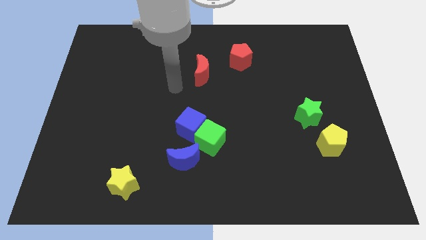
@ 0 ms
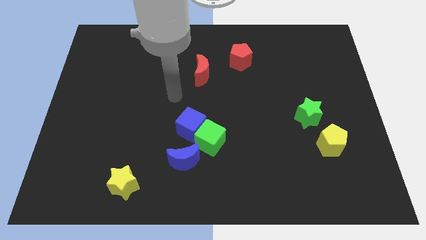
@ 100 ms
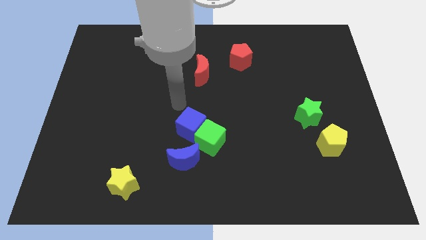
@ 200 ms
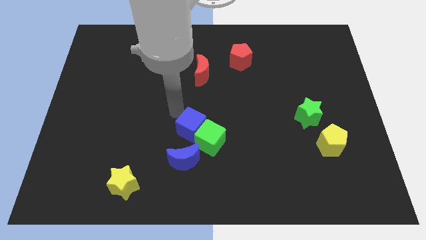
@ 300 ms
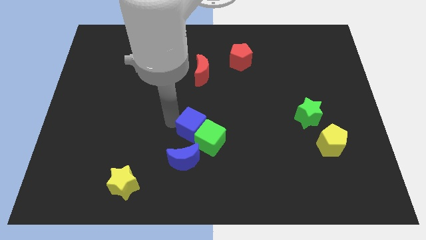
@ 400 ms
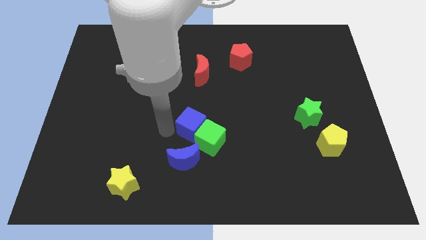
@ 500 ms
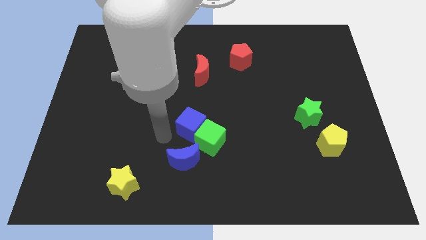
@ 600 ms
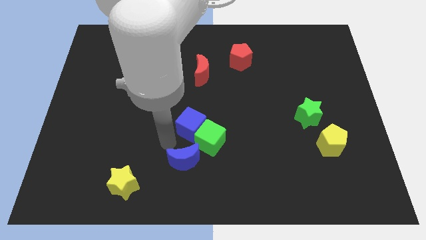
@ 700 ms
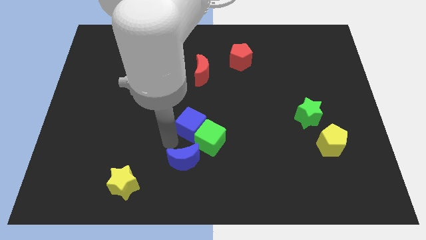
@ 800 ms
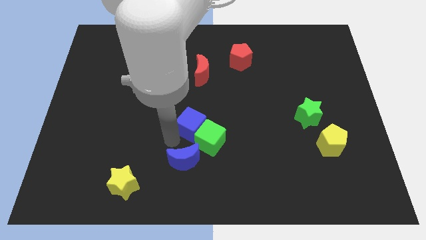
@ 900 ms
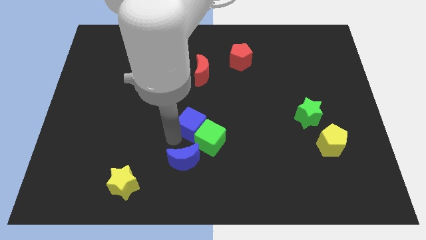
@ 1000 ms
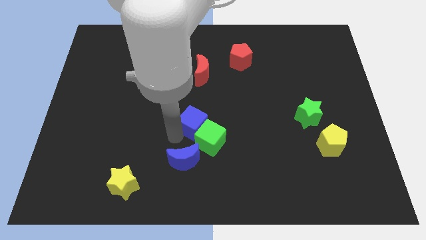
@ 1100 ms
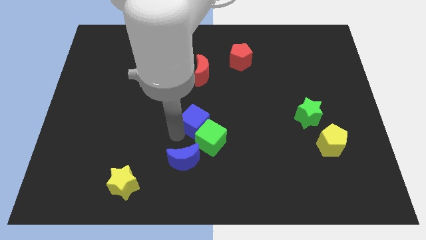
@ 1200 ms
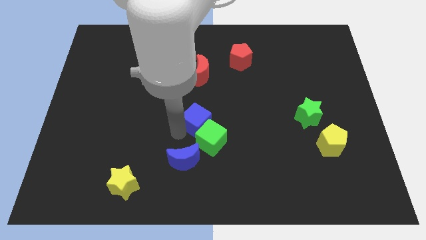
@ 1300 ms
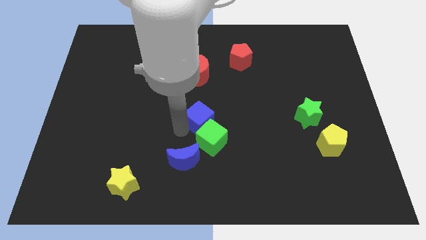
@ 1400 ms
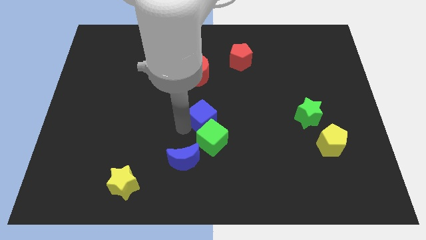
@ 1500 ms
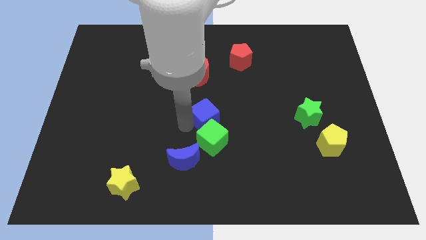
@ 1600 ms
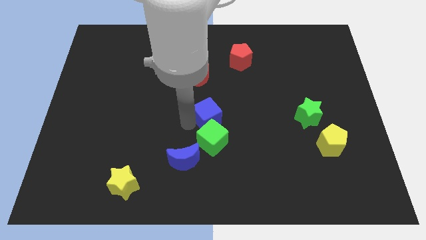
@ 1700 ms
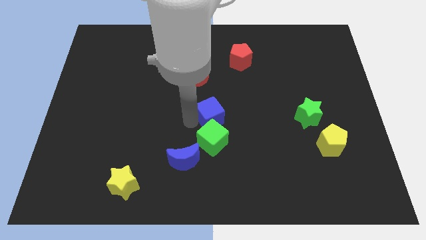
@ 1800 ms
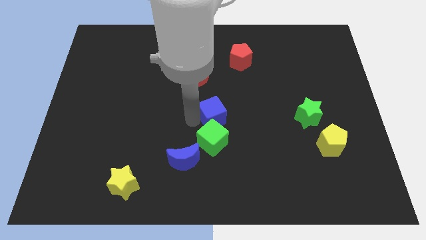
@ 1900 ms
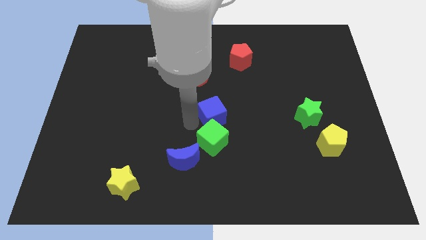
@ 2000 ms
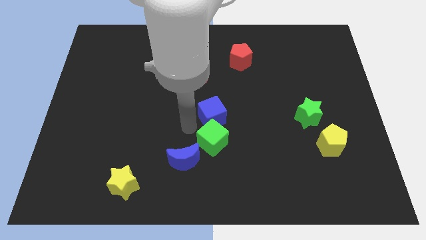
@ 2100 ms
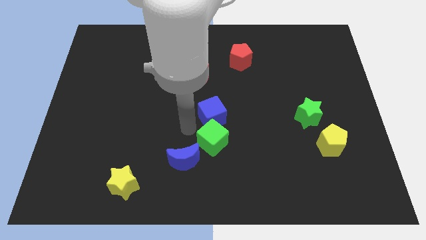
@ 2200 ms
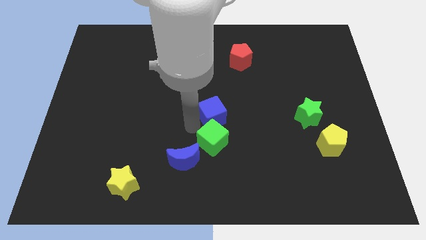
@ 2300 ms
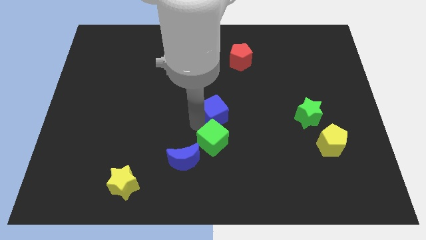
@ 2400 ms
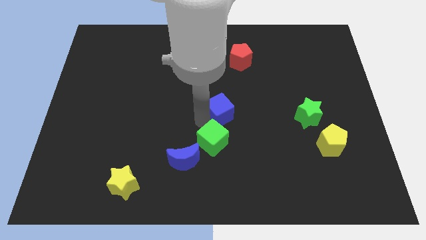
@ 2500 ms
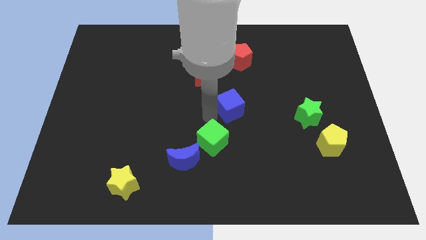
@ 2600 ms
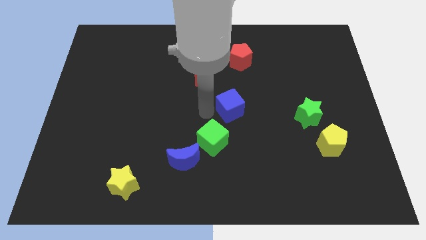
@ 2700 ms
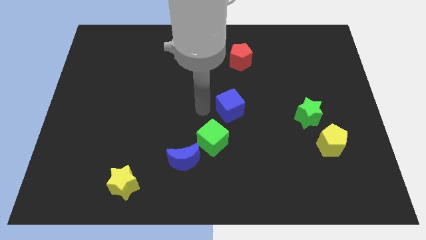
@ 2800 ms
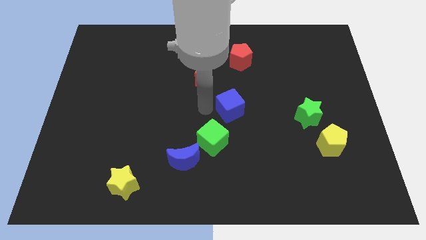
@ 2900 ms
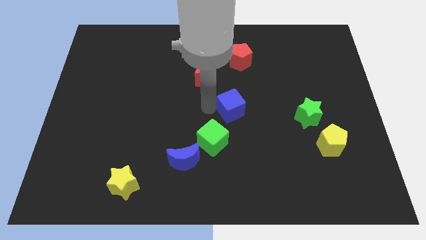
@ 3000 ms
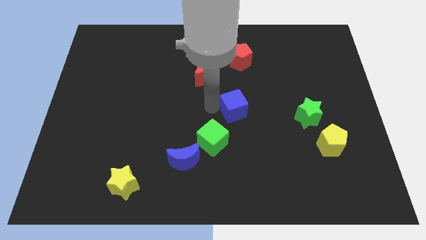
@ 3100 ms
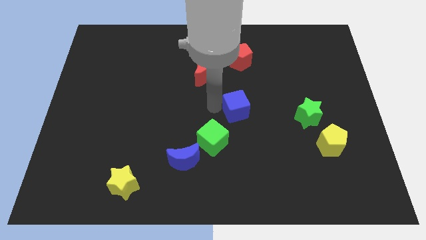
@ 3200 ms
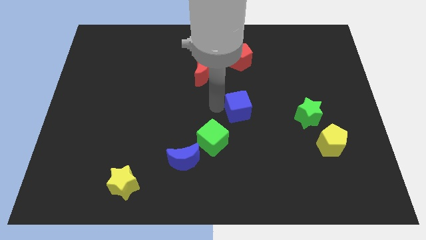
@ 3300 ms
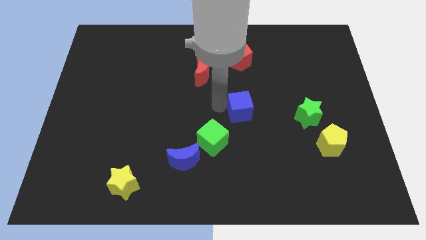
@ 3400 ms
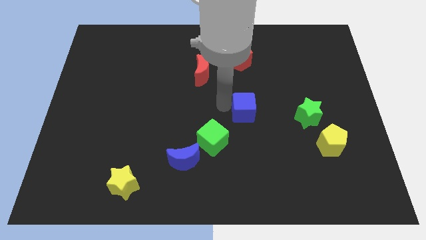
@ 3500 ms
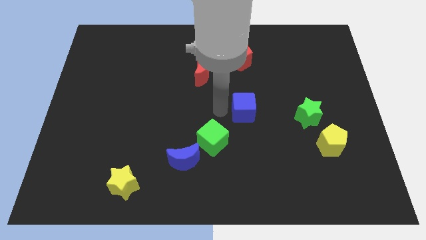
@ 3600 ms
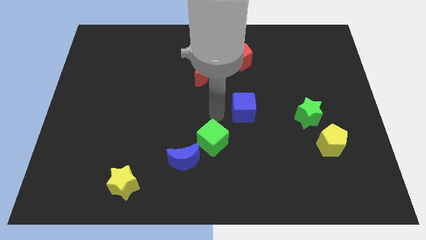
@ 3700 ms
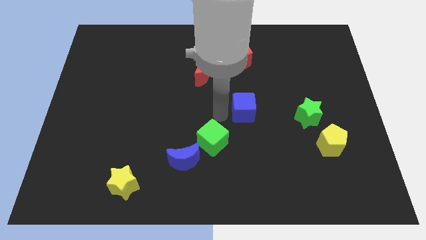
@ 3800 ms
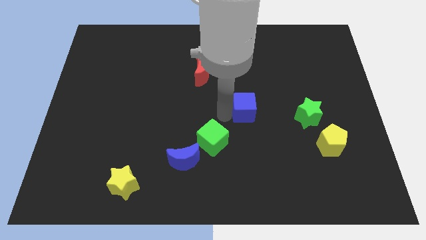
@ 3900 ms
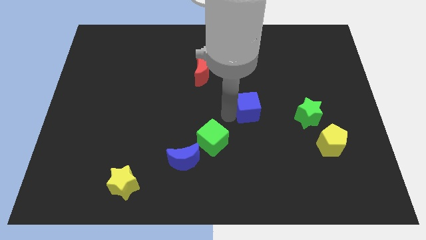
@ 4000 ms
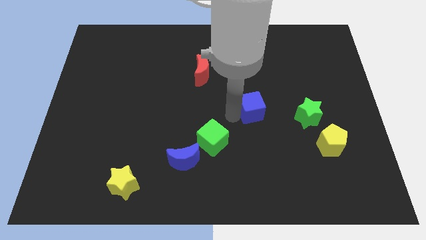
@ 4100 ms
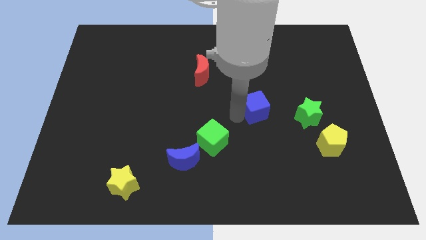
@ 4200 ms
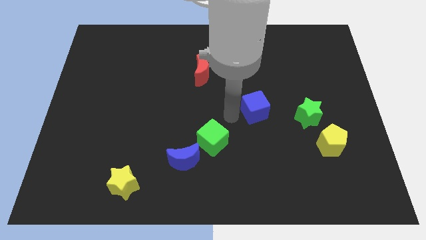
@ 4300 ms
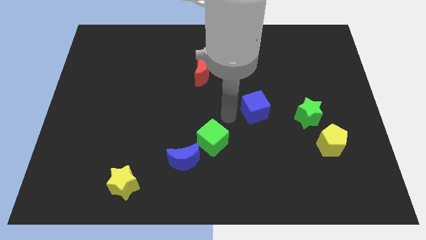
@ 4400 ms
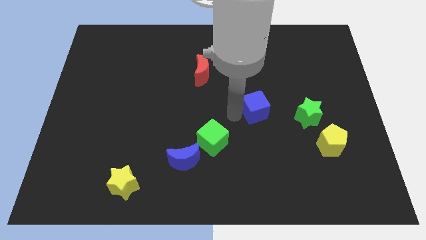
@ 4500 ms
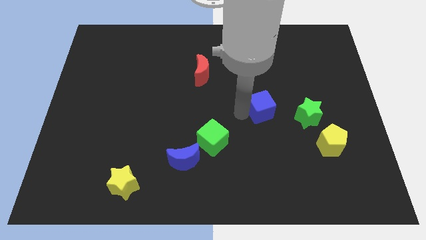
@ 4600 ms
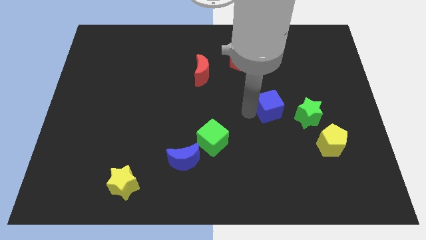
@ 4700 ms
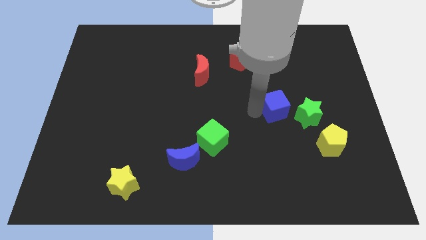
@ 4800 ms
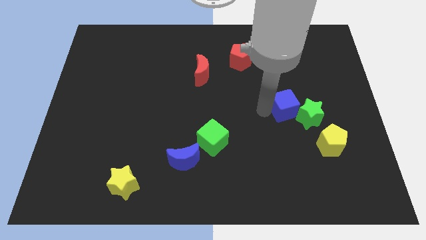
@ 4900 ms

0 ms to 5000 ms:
slide the blue cube to the right

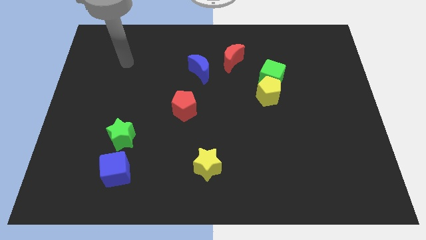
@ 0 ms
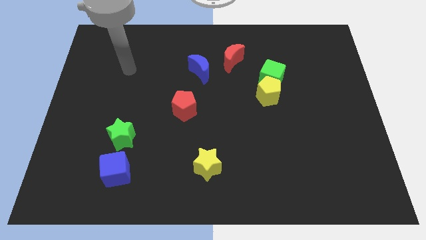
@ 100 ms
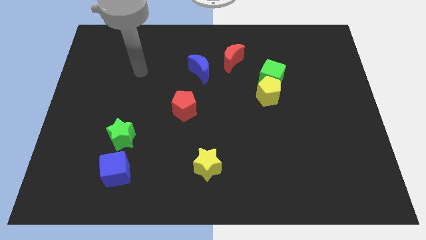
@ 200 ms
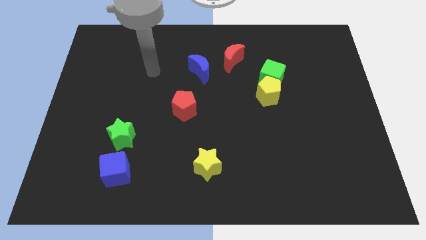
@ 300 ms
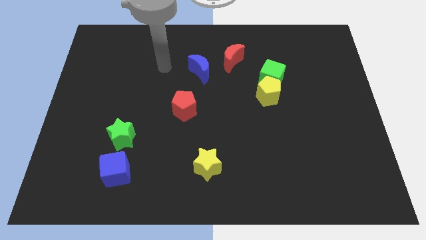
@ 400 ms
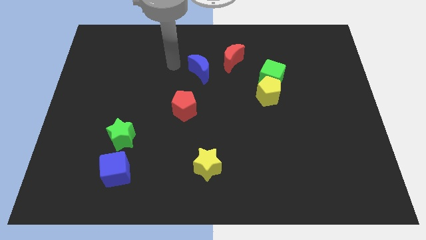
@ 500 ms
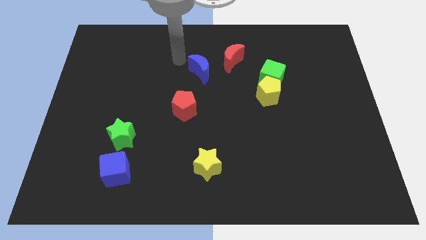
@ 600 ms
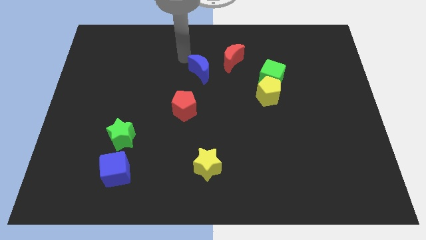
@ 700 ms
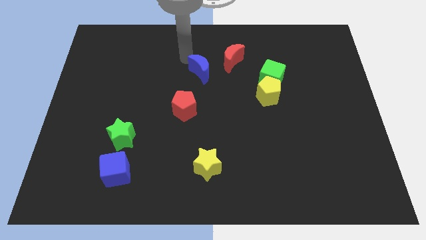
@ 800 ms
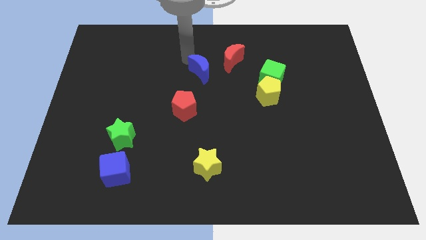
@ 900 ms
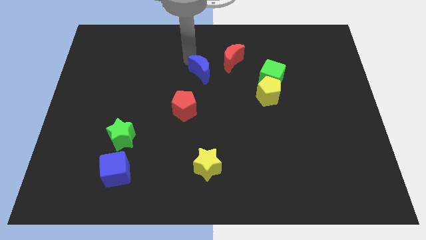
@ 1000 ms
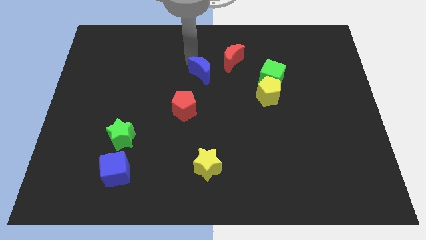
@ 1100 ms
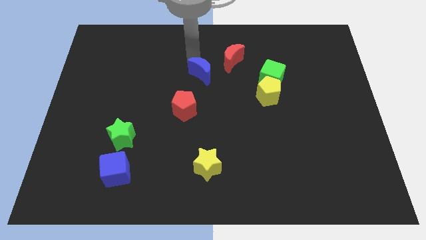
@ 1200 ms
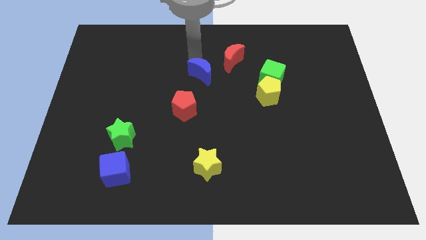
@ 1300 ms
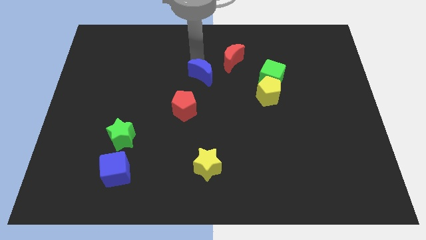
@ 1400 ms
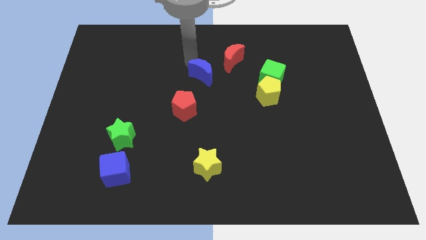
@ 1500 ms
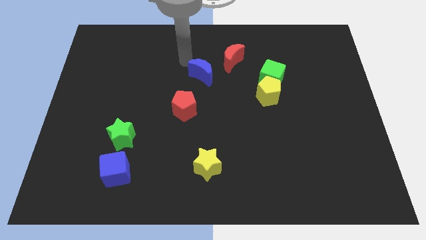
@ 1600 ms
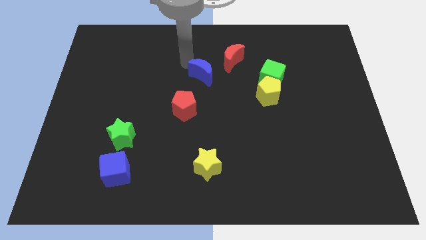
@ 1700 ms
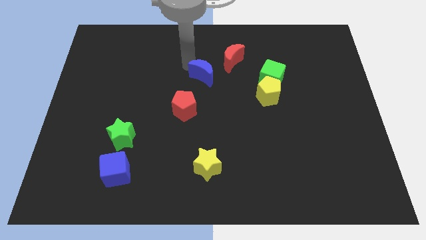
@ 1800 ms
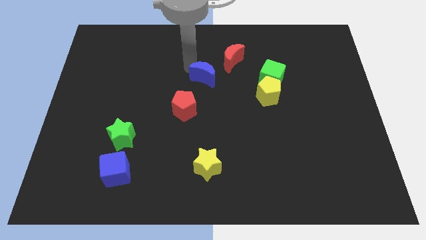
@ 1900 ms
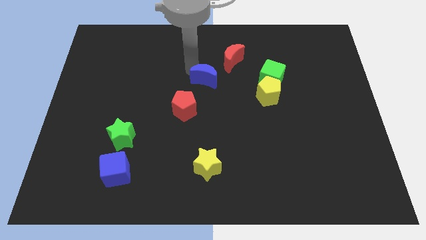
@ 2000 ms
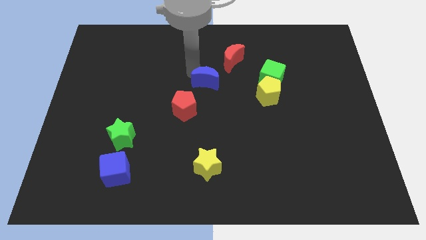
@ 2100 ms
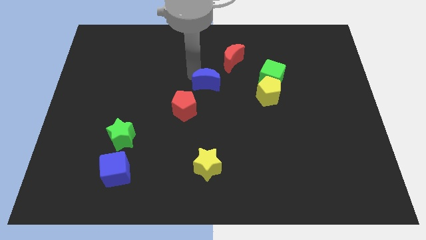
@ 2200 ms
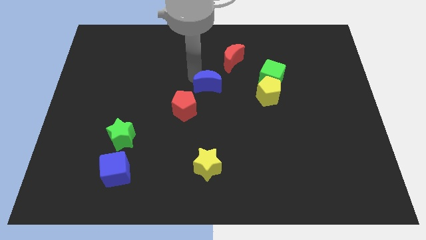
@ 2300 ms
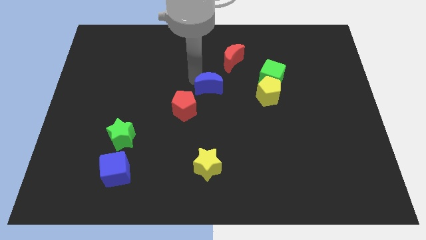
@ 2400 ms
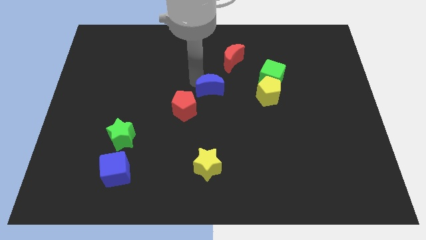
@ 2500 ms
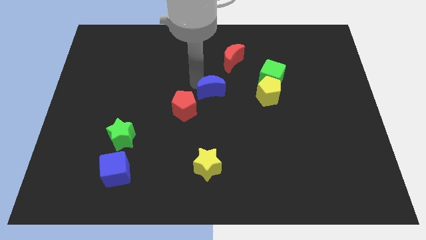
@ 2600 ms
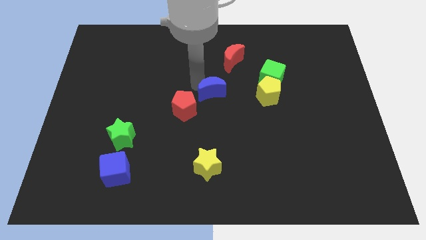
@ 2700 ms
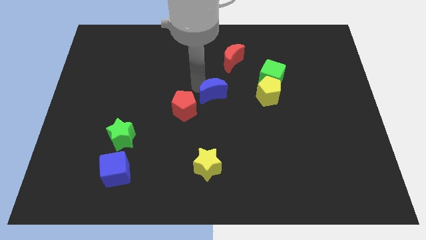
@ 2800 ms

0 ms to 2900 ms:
move the blue moon downwards and to the right diagonally a bit
